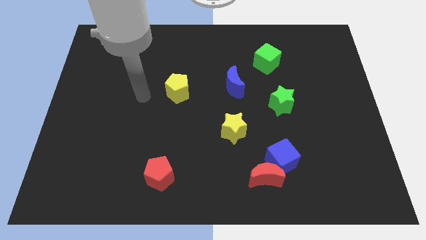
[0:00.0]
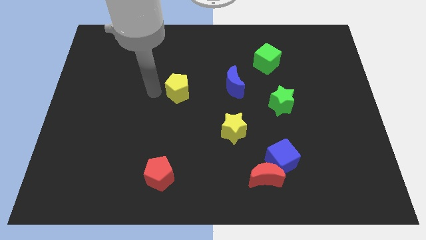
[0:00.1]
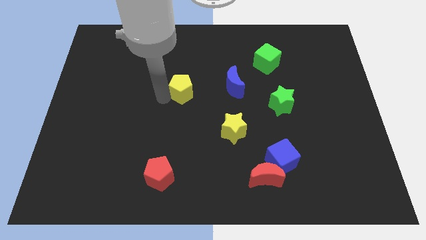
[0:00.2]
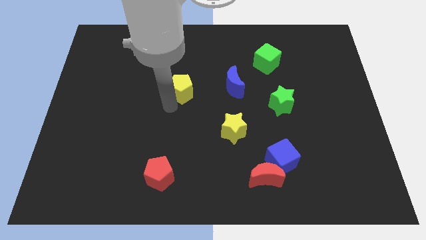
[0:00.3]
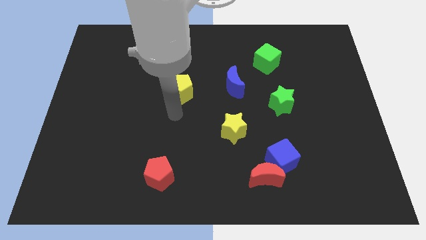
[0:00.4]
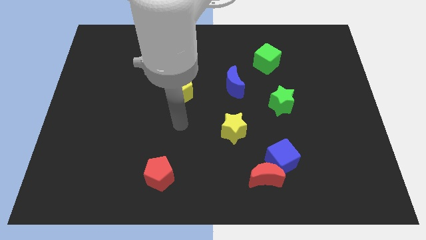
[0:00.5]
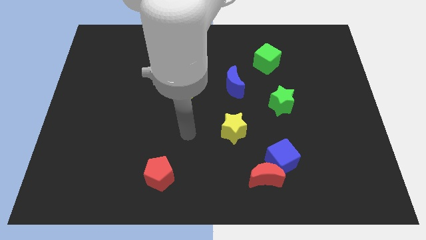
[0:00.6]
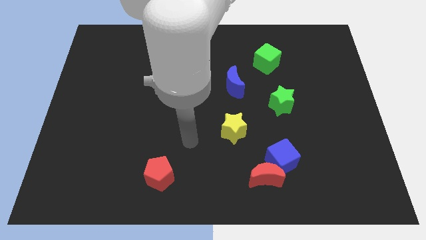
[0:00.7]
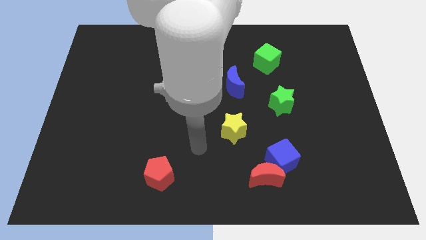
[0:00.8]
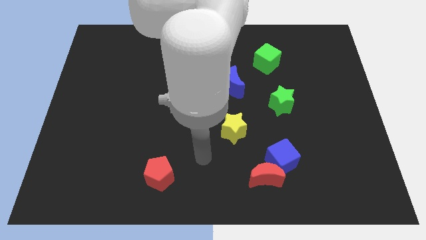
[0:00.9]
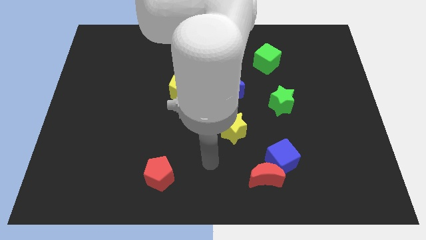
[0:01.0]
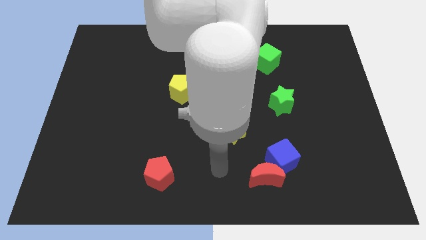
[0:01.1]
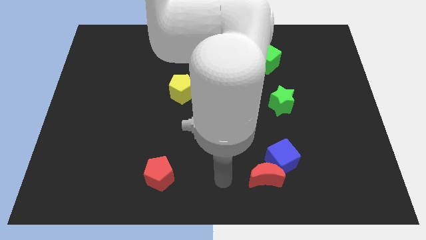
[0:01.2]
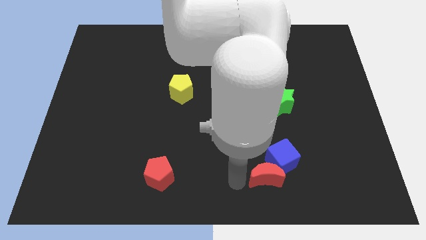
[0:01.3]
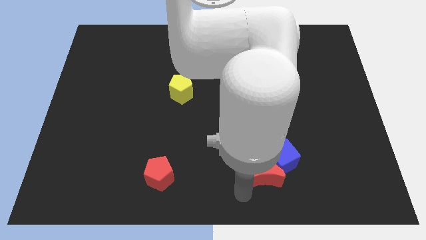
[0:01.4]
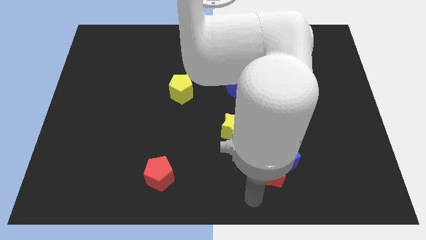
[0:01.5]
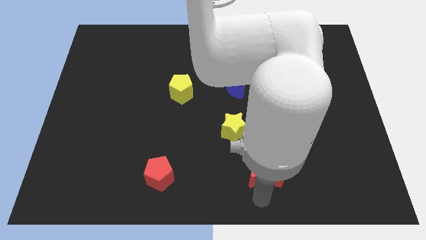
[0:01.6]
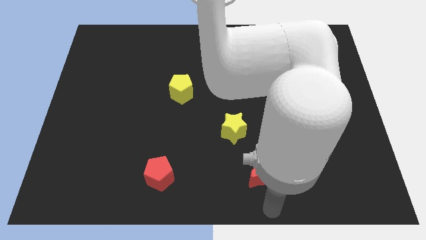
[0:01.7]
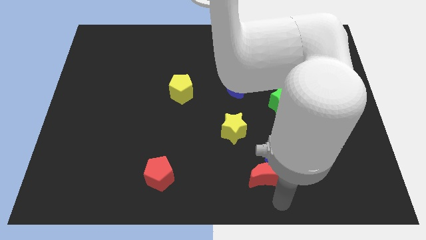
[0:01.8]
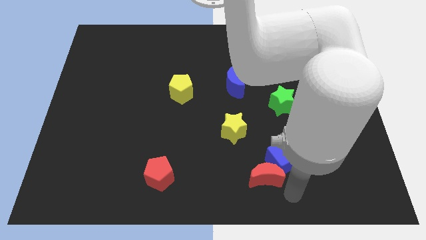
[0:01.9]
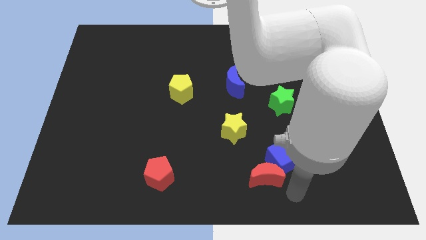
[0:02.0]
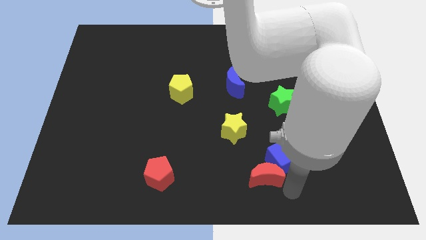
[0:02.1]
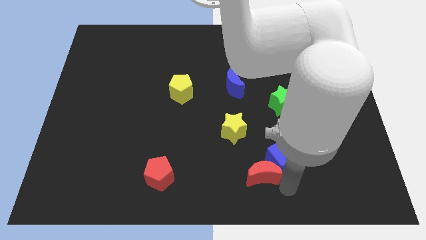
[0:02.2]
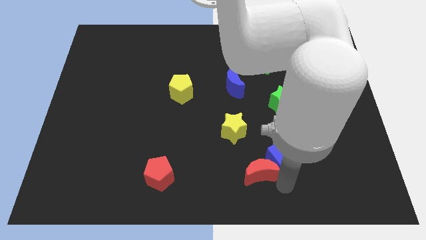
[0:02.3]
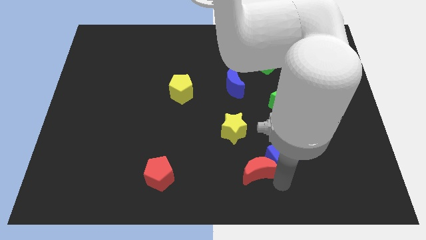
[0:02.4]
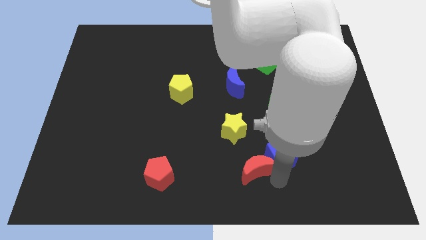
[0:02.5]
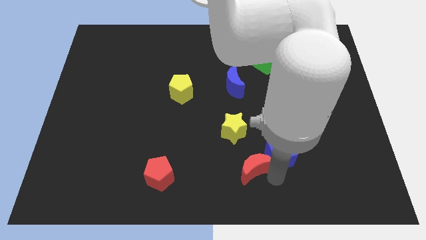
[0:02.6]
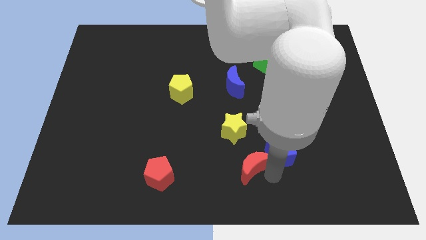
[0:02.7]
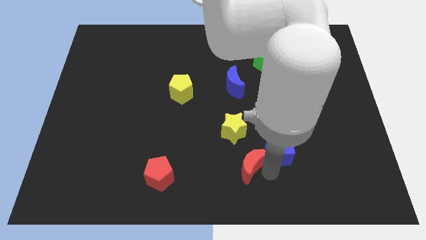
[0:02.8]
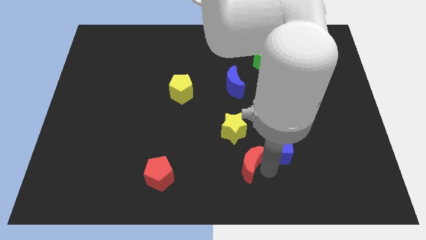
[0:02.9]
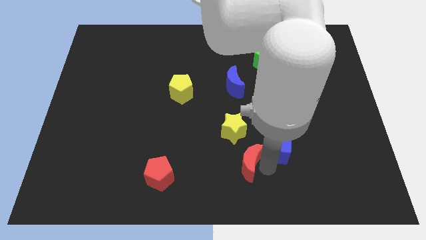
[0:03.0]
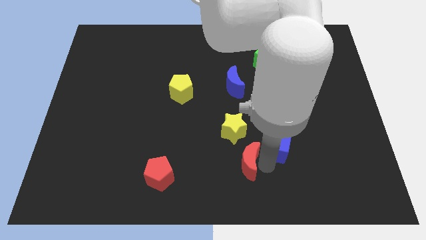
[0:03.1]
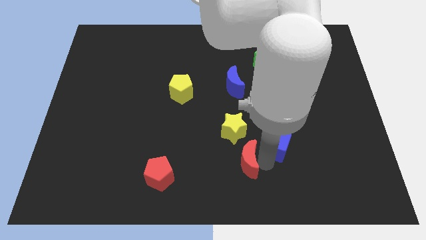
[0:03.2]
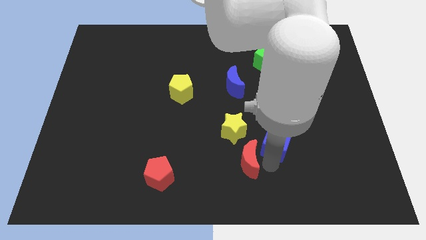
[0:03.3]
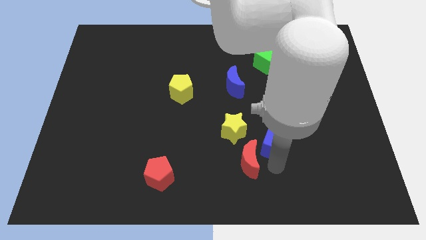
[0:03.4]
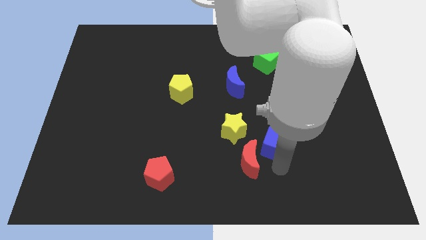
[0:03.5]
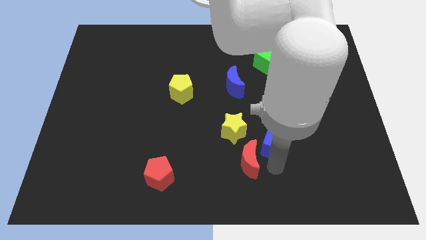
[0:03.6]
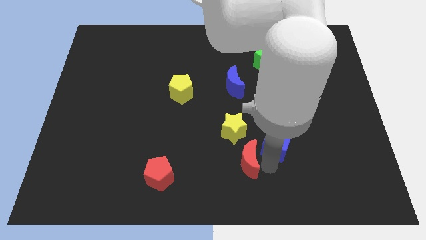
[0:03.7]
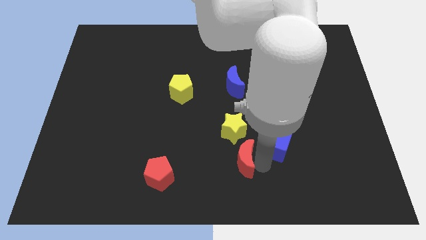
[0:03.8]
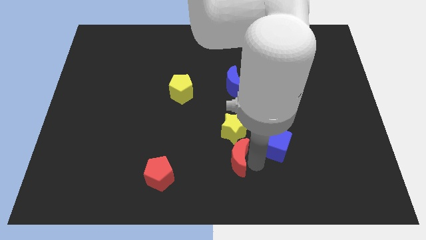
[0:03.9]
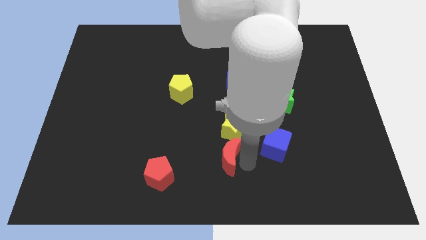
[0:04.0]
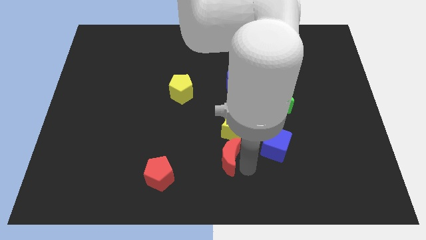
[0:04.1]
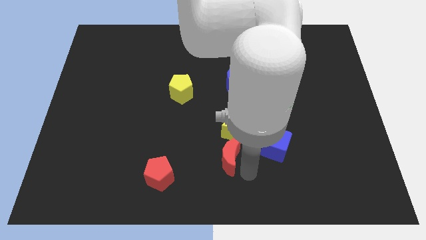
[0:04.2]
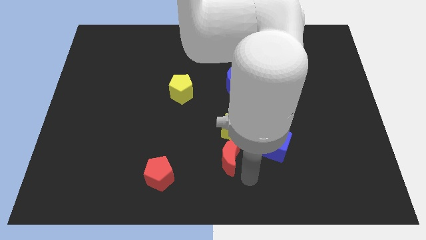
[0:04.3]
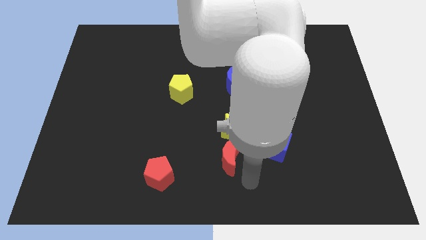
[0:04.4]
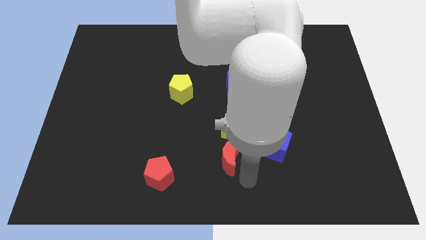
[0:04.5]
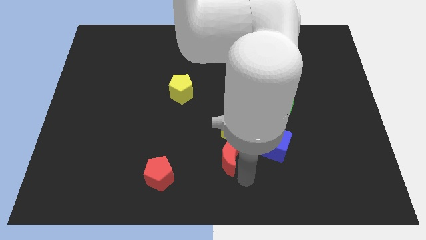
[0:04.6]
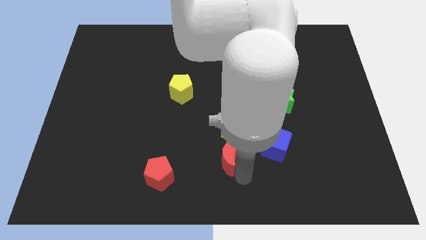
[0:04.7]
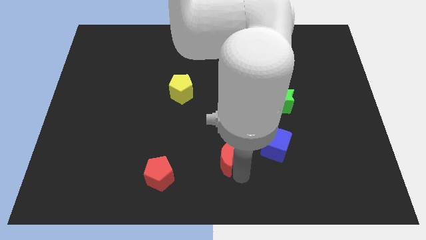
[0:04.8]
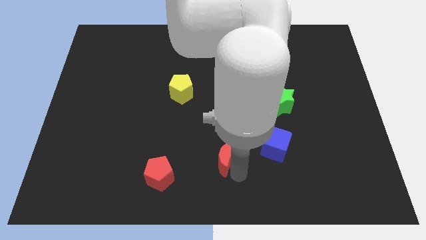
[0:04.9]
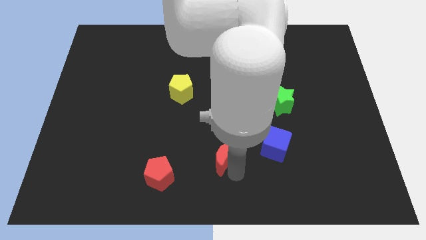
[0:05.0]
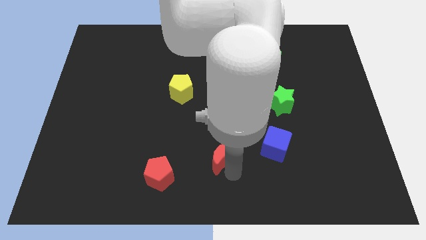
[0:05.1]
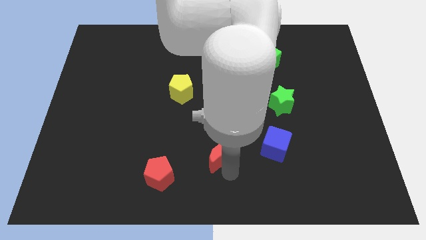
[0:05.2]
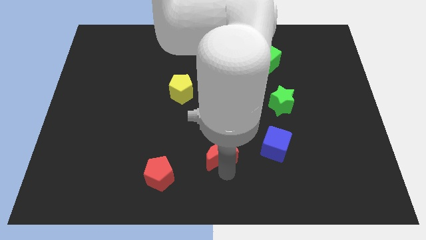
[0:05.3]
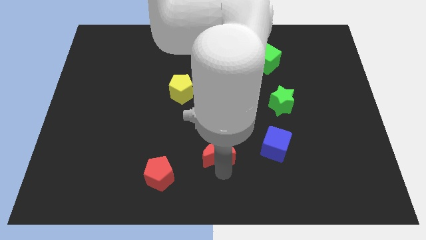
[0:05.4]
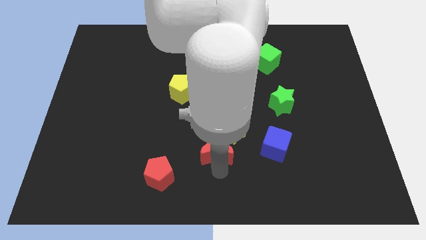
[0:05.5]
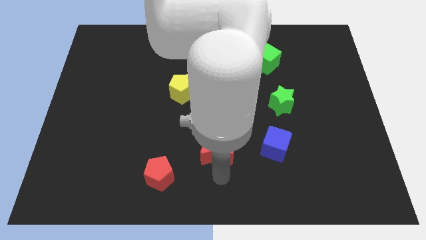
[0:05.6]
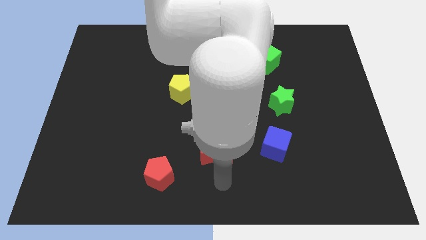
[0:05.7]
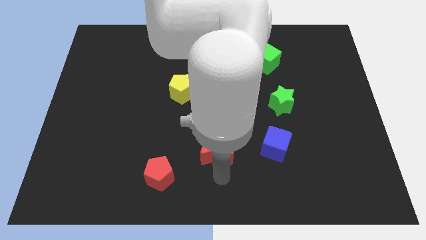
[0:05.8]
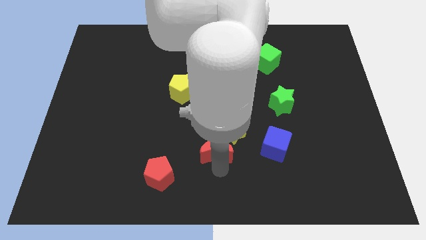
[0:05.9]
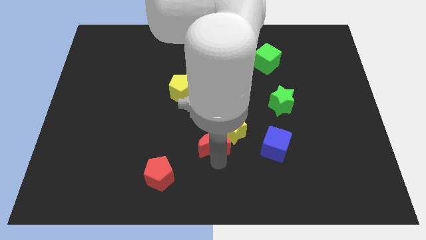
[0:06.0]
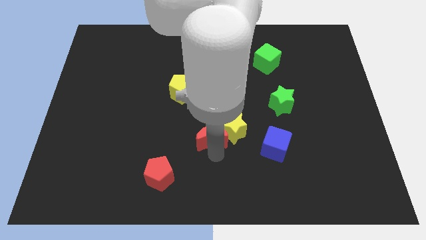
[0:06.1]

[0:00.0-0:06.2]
push the red moon to the center of the board
